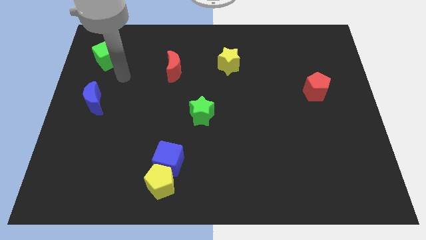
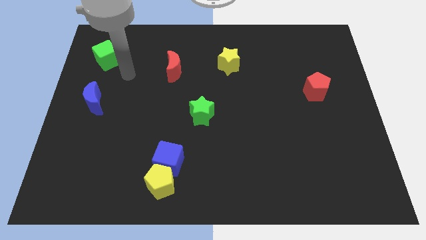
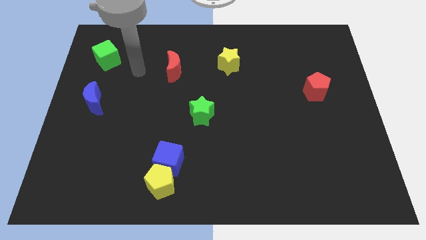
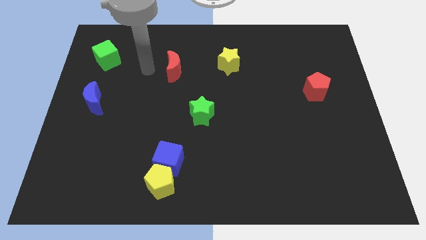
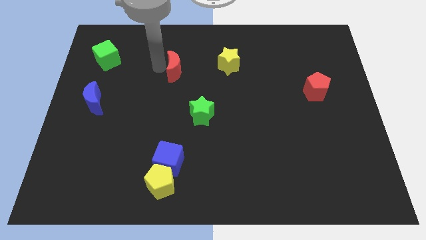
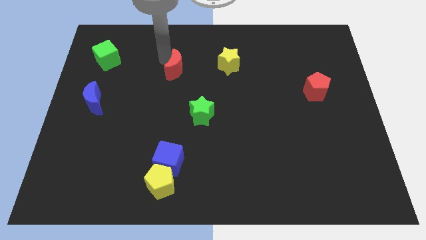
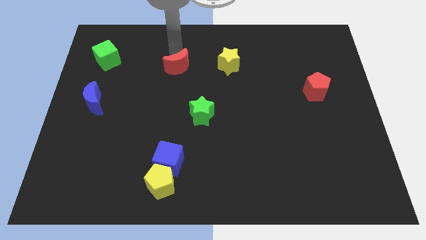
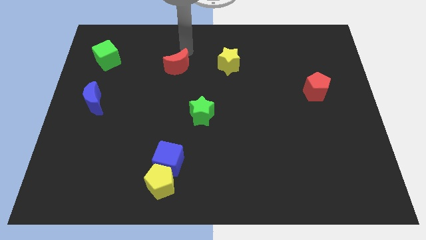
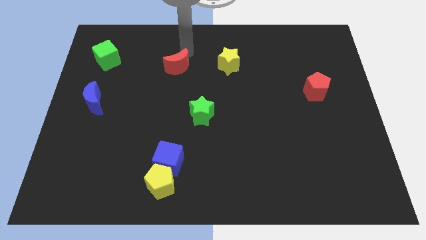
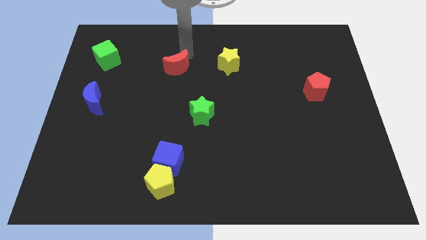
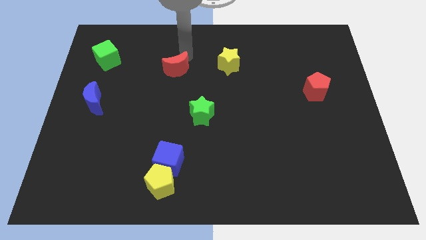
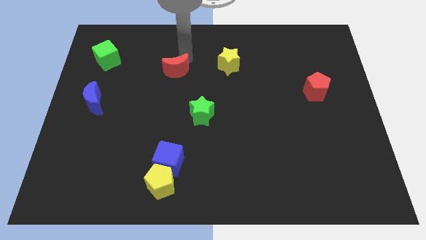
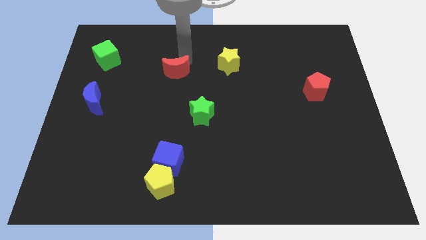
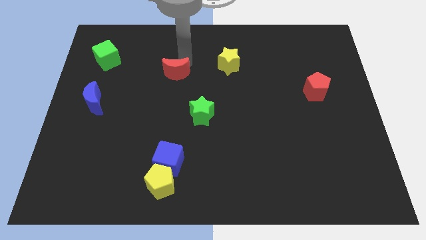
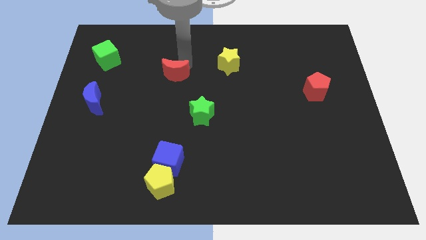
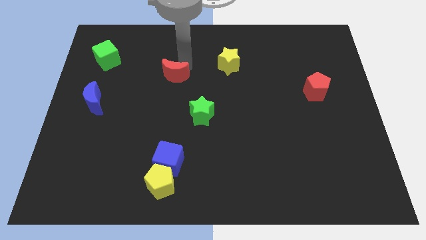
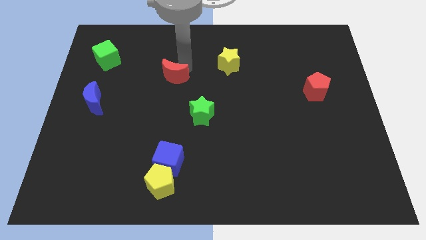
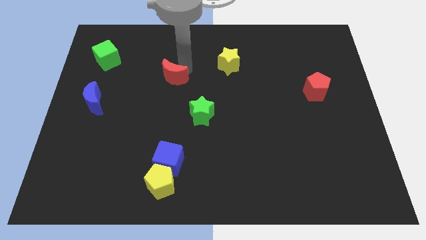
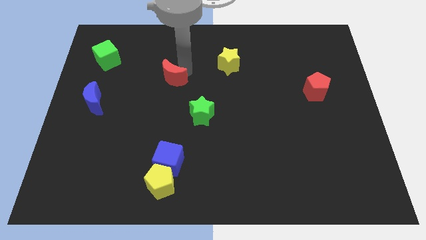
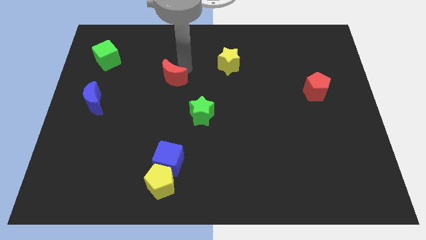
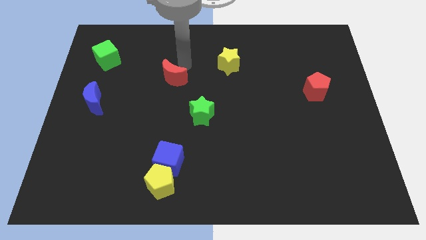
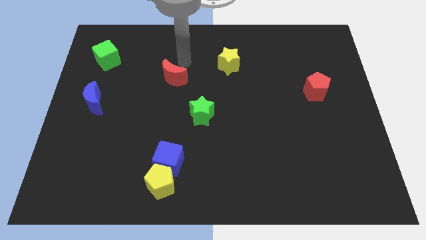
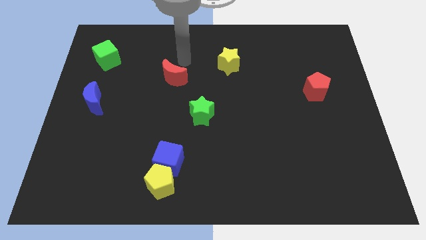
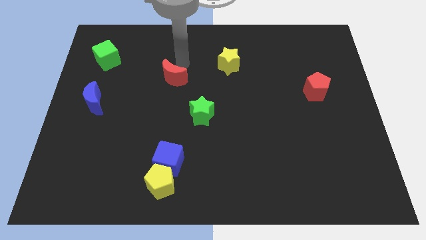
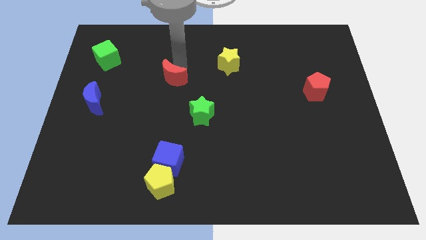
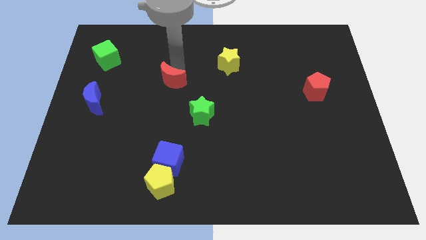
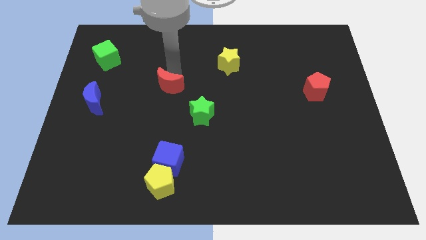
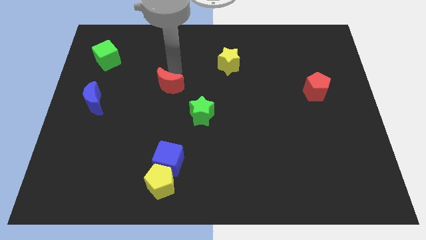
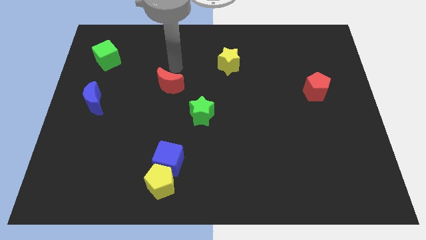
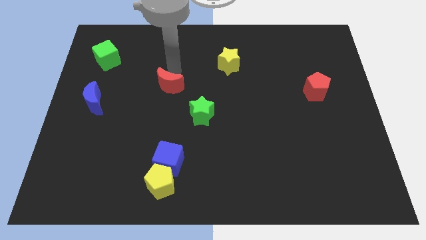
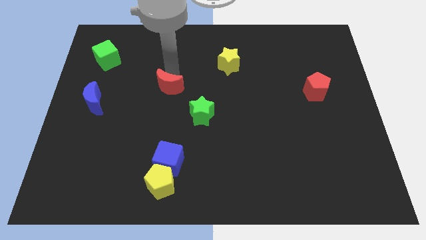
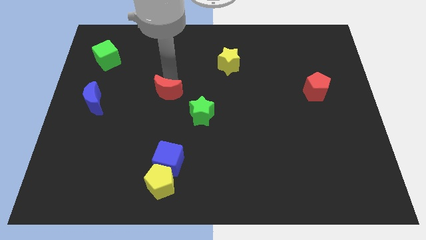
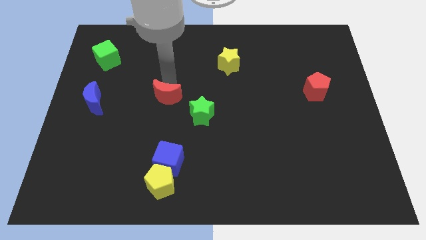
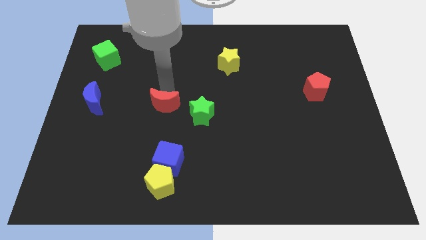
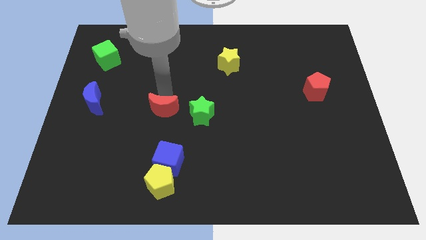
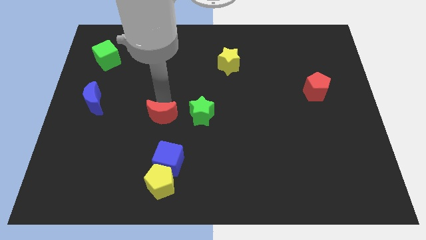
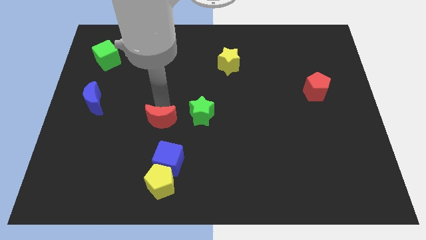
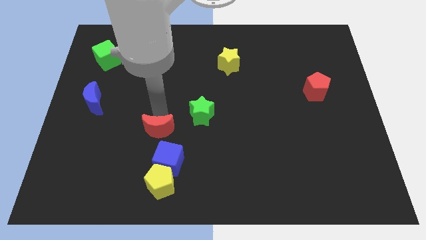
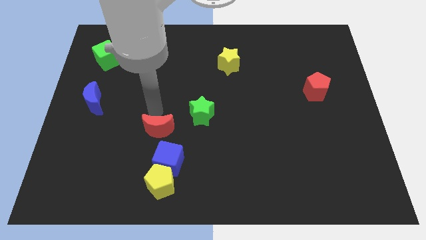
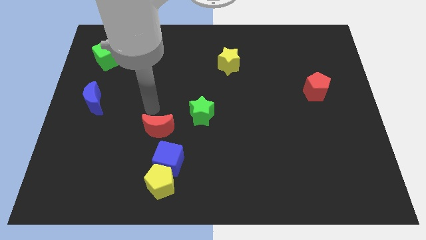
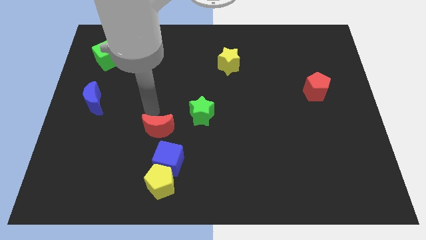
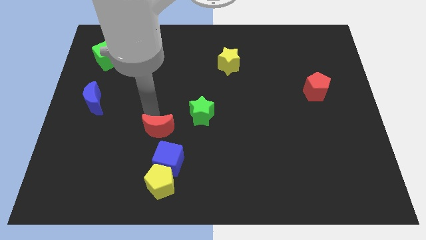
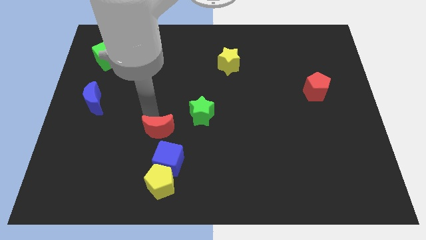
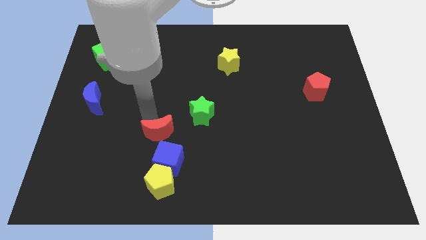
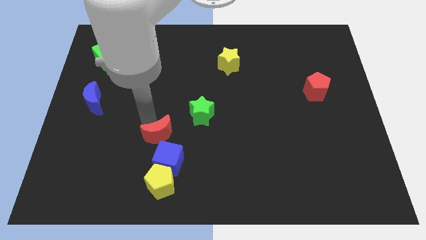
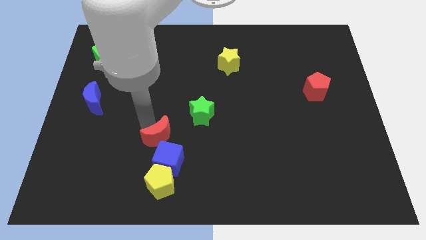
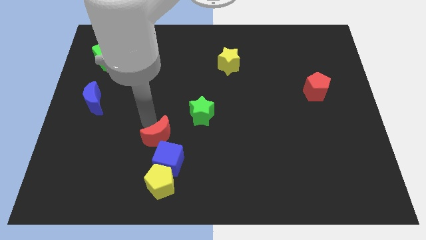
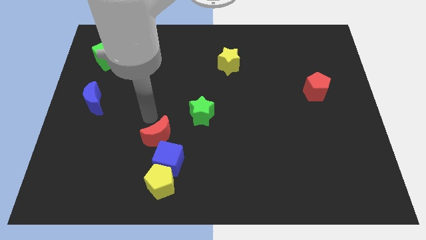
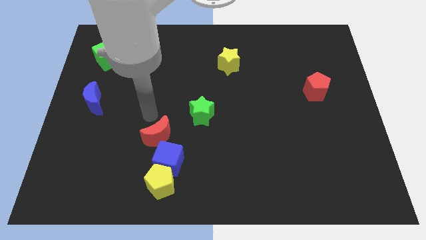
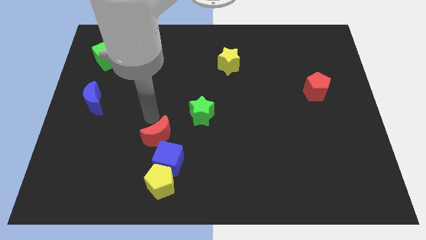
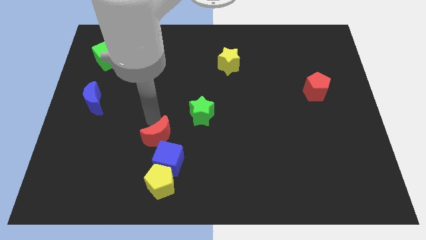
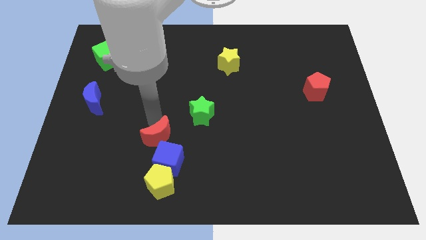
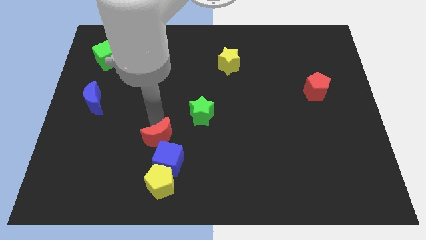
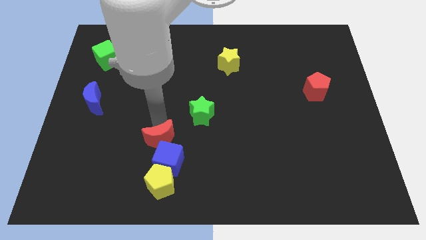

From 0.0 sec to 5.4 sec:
slide the red moon towards the blue cube
